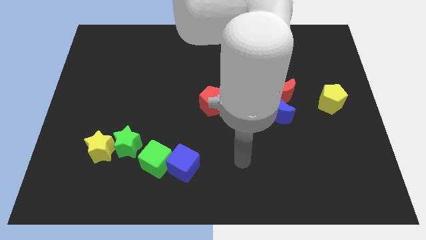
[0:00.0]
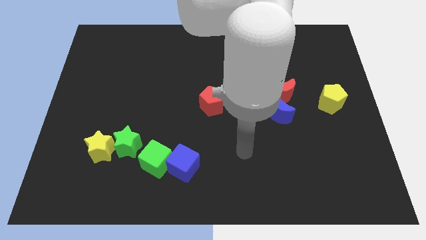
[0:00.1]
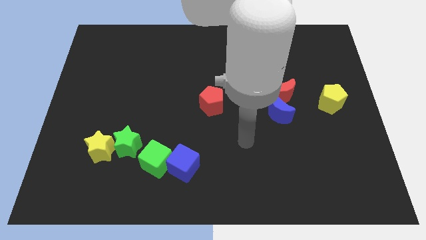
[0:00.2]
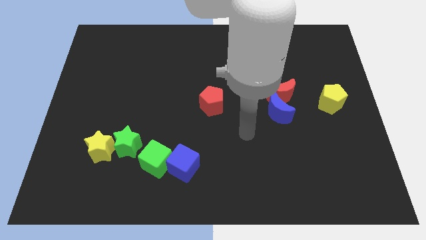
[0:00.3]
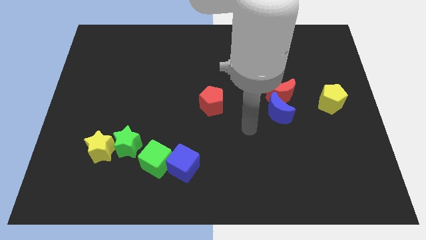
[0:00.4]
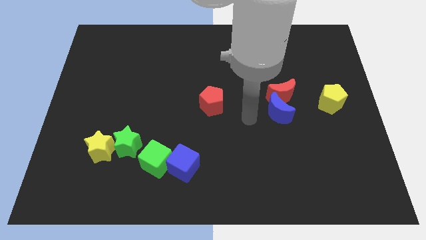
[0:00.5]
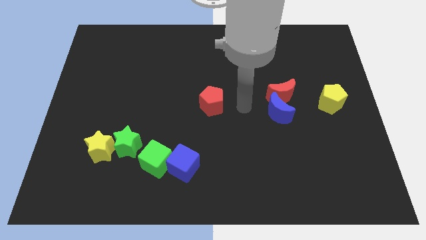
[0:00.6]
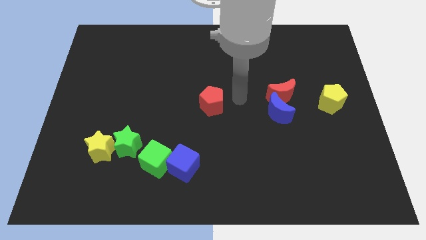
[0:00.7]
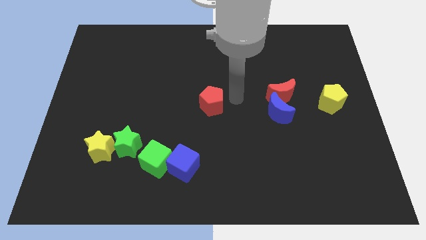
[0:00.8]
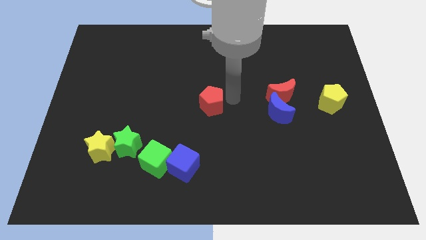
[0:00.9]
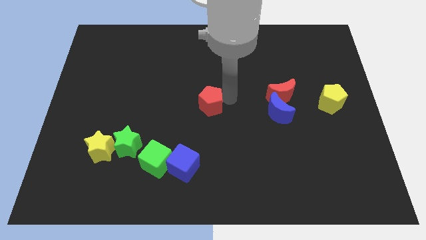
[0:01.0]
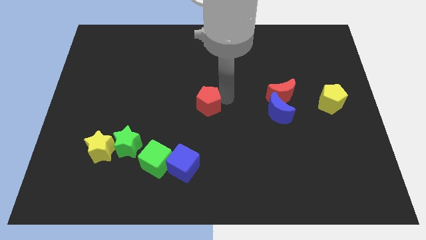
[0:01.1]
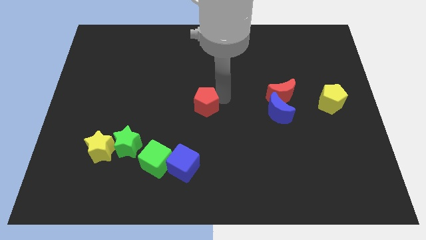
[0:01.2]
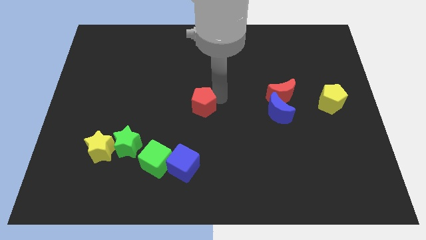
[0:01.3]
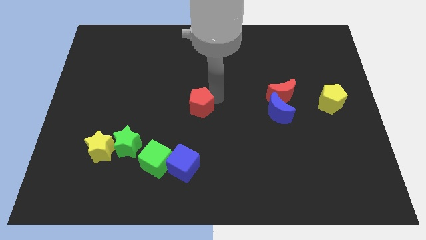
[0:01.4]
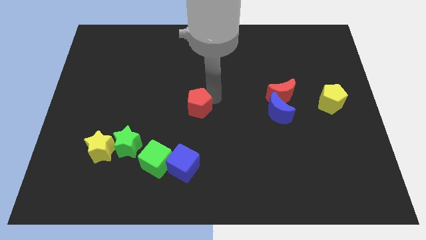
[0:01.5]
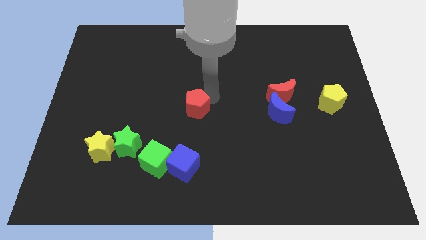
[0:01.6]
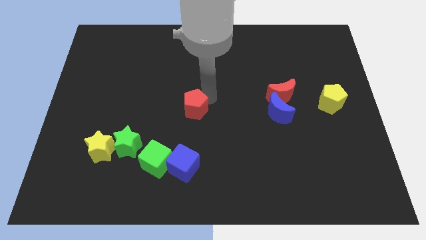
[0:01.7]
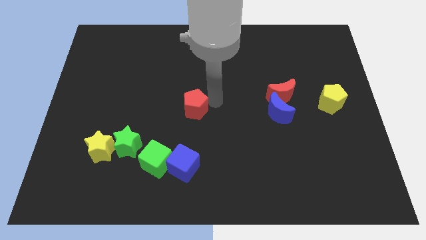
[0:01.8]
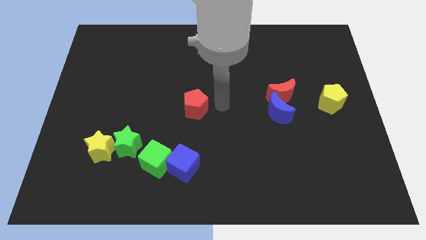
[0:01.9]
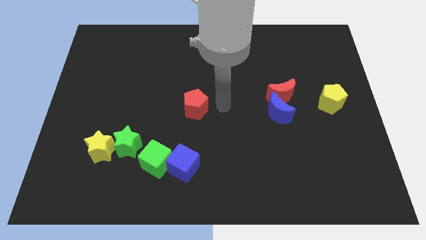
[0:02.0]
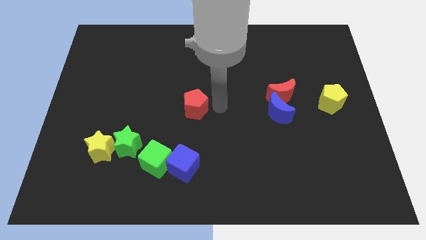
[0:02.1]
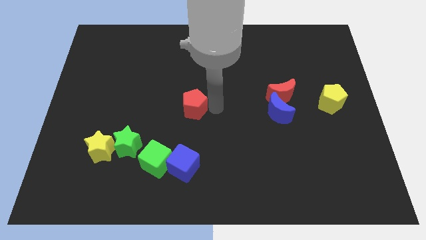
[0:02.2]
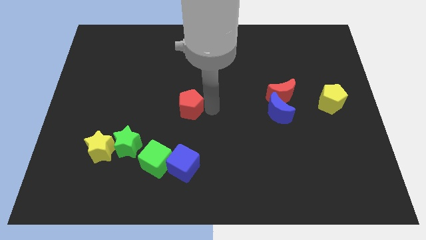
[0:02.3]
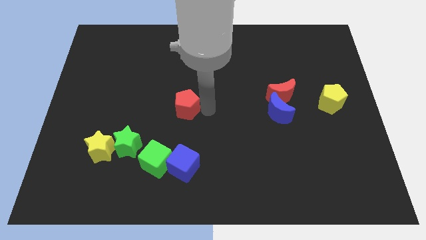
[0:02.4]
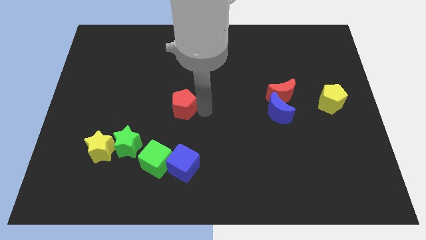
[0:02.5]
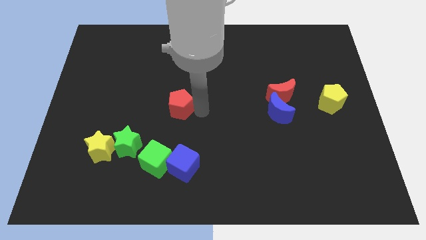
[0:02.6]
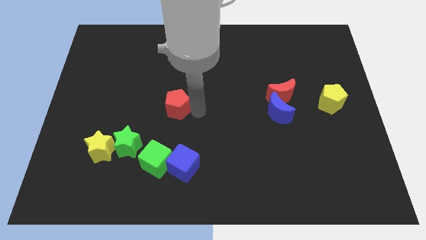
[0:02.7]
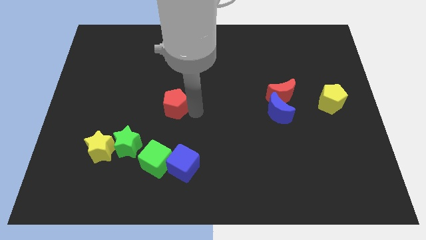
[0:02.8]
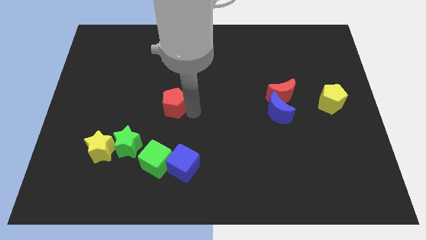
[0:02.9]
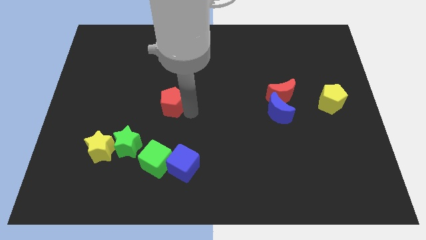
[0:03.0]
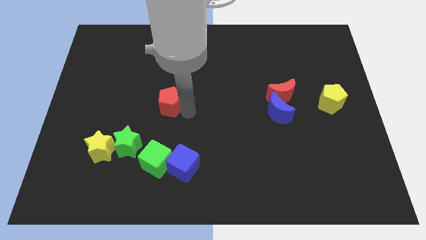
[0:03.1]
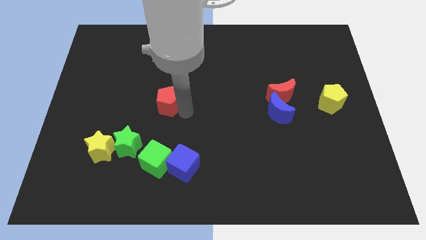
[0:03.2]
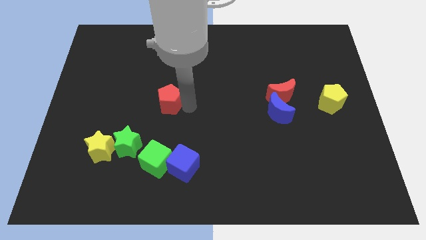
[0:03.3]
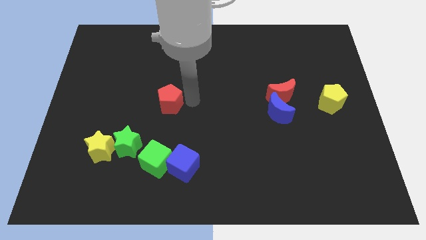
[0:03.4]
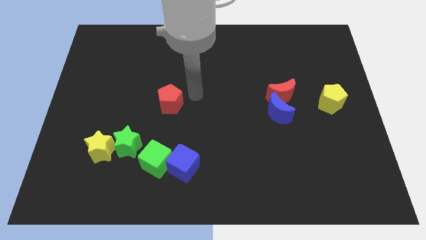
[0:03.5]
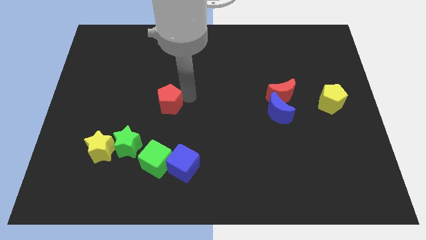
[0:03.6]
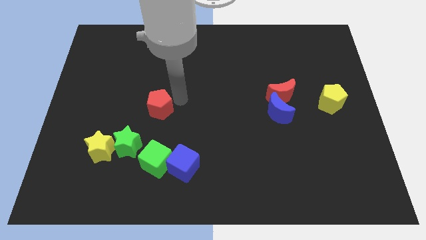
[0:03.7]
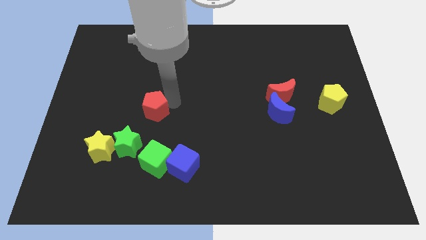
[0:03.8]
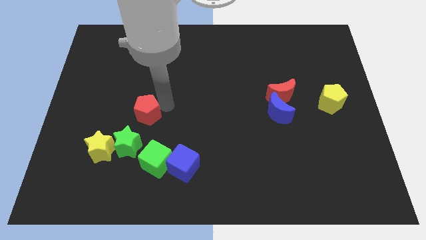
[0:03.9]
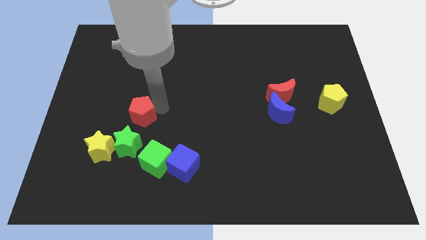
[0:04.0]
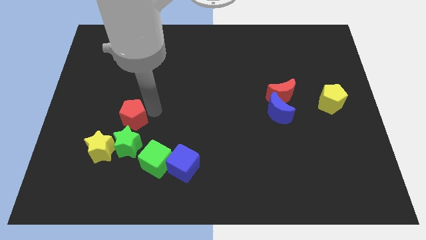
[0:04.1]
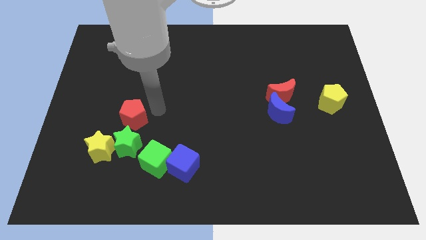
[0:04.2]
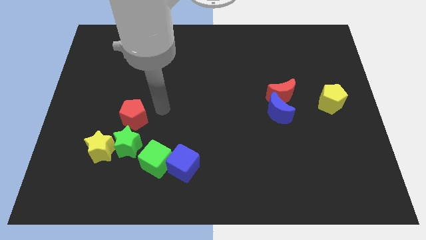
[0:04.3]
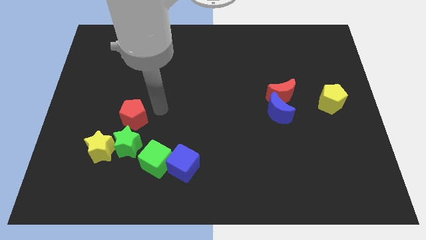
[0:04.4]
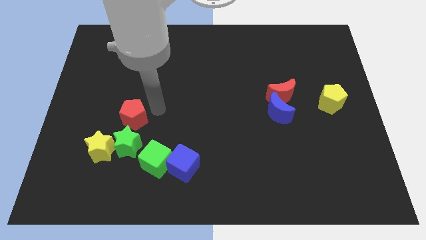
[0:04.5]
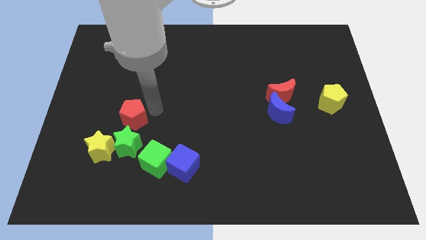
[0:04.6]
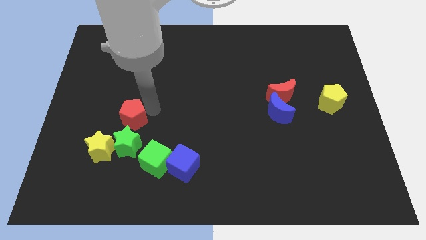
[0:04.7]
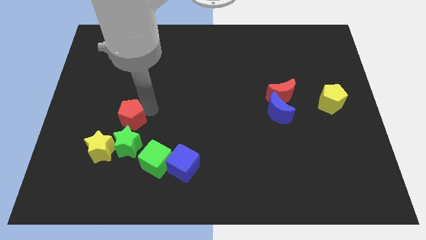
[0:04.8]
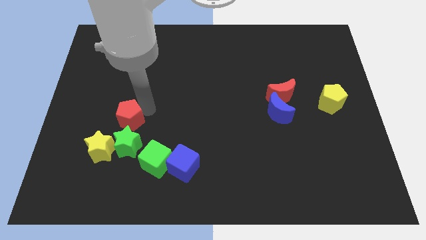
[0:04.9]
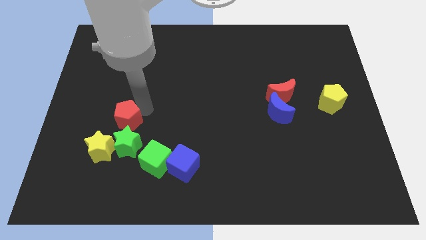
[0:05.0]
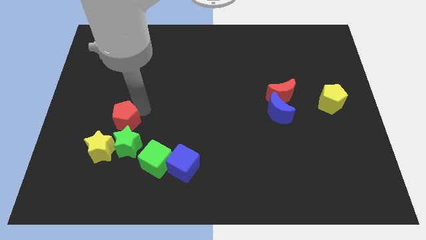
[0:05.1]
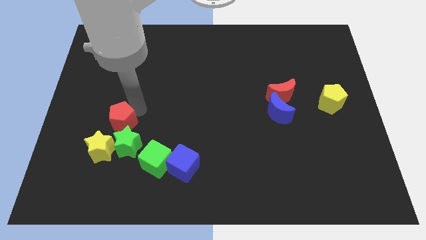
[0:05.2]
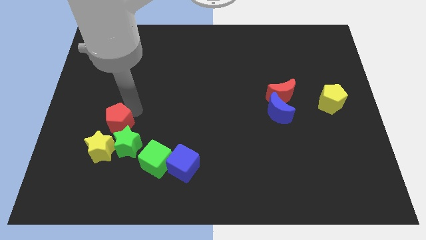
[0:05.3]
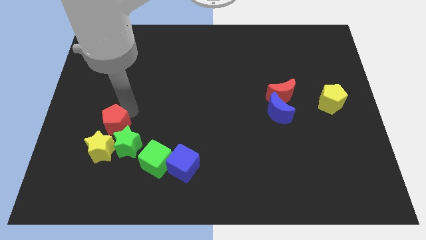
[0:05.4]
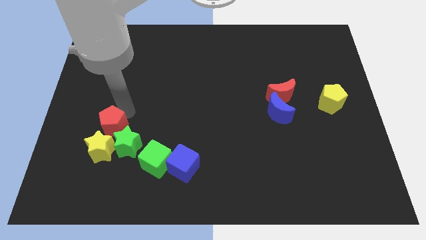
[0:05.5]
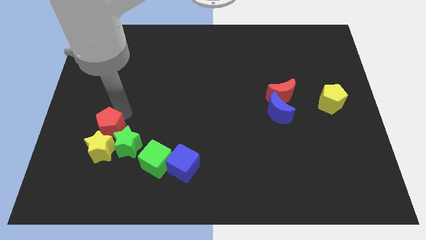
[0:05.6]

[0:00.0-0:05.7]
push the red pentagon to the yellow star

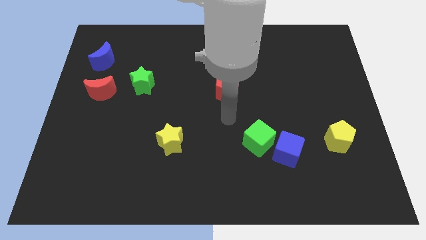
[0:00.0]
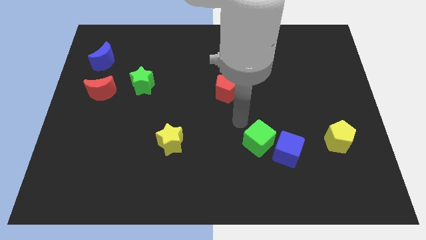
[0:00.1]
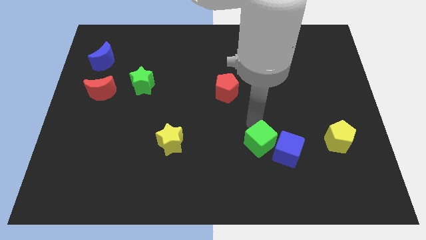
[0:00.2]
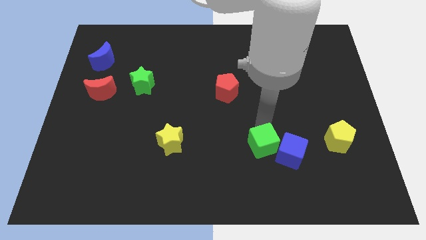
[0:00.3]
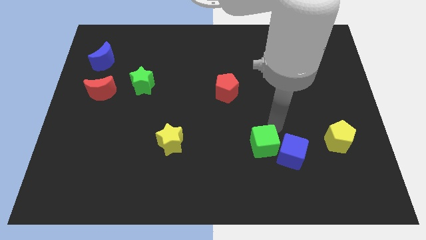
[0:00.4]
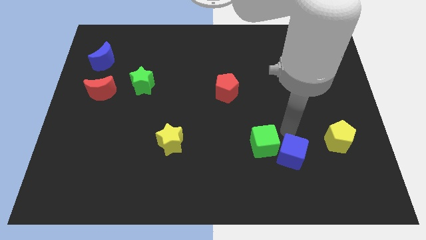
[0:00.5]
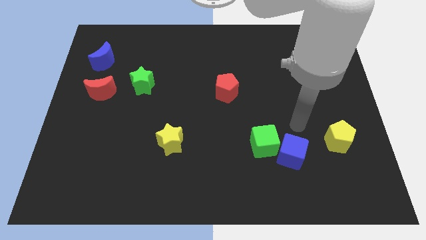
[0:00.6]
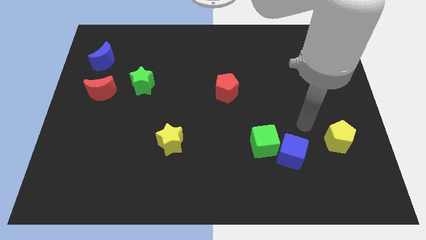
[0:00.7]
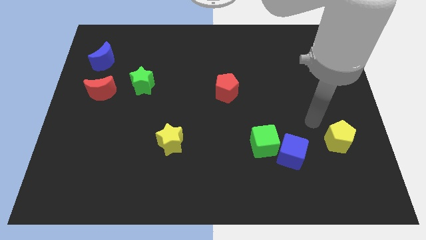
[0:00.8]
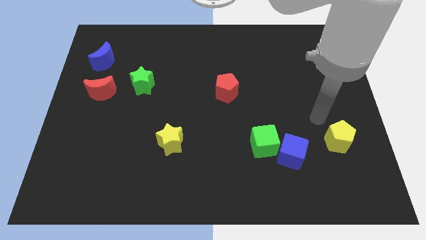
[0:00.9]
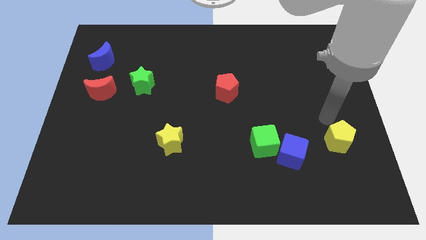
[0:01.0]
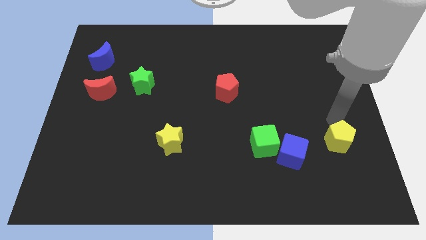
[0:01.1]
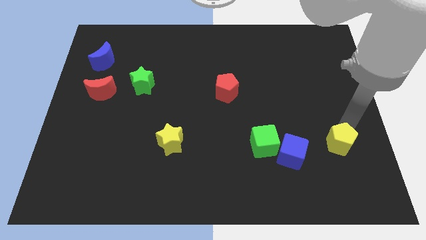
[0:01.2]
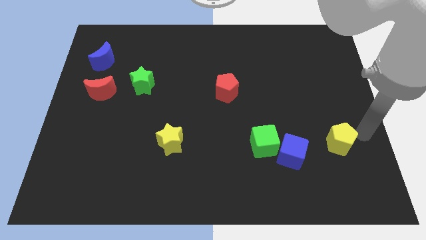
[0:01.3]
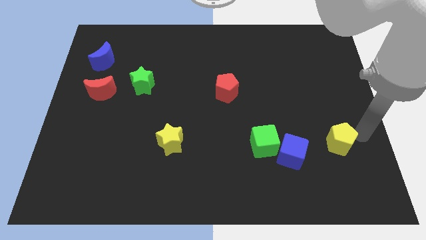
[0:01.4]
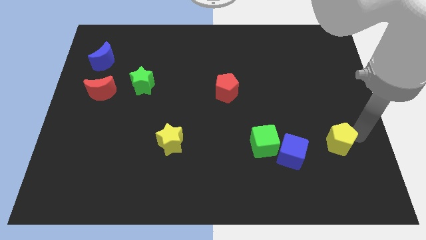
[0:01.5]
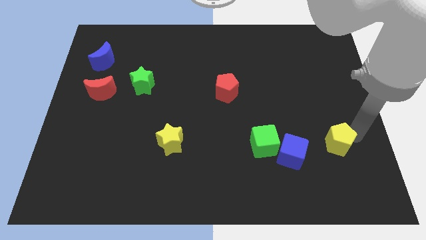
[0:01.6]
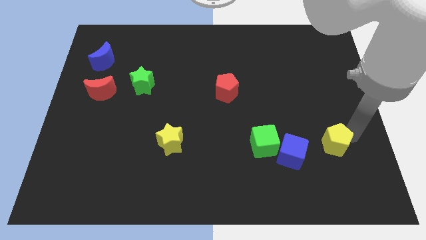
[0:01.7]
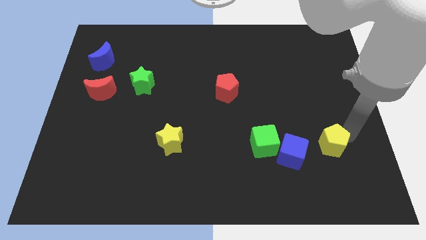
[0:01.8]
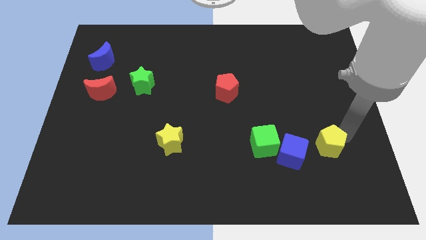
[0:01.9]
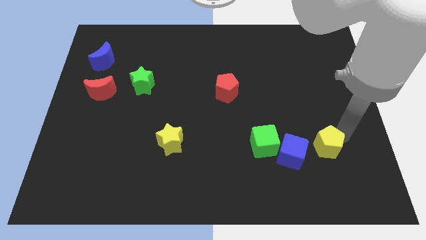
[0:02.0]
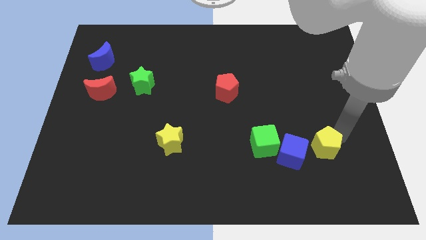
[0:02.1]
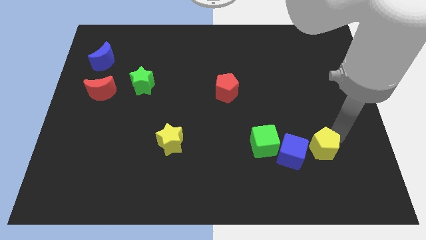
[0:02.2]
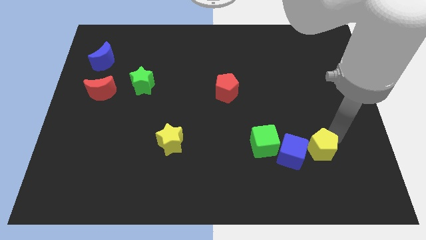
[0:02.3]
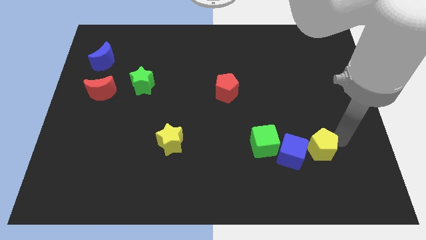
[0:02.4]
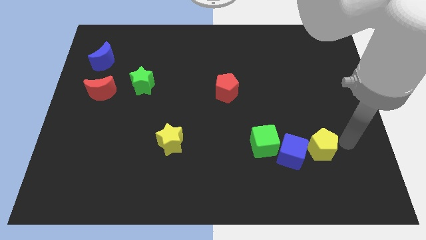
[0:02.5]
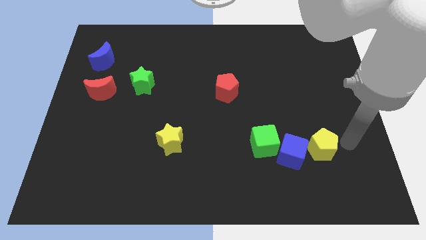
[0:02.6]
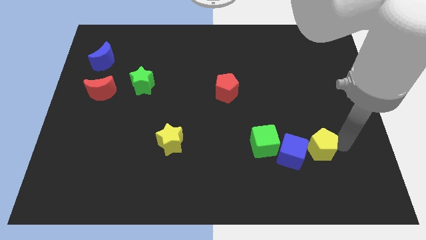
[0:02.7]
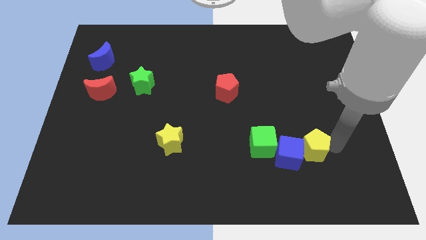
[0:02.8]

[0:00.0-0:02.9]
push the yellow pentagon to the blue cube
